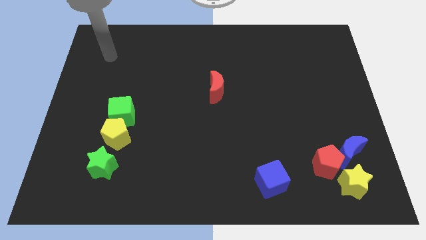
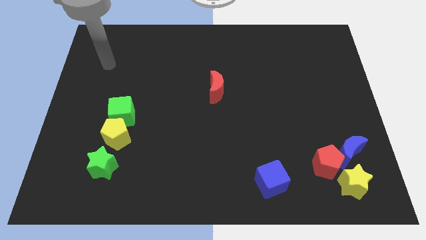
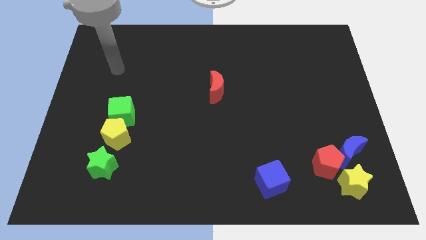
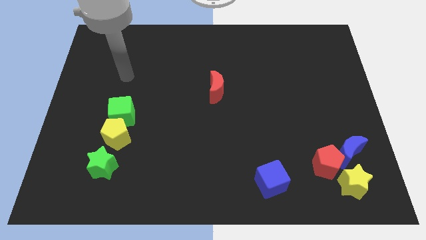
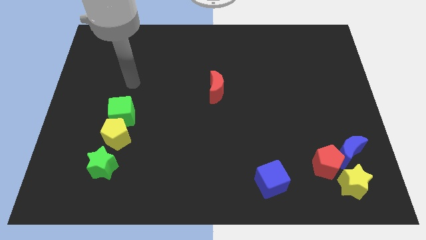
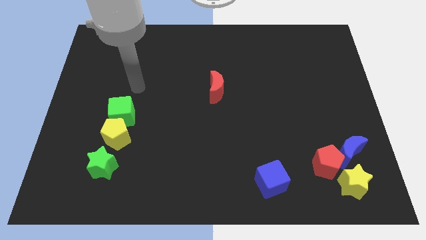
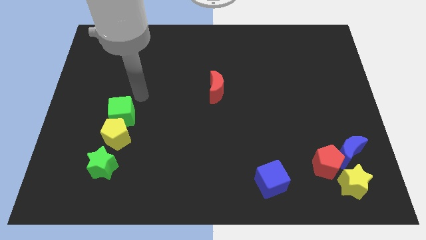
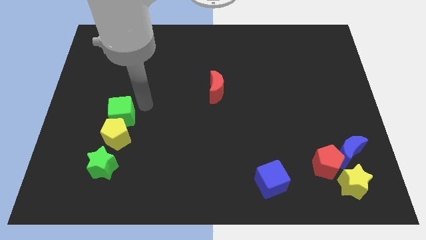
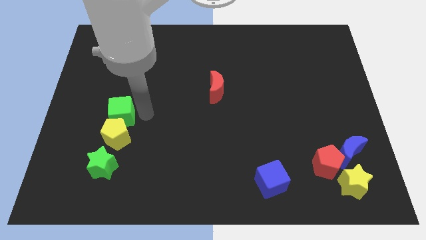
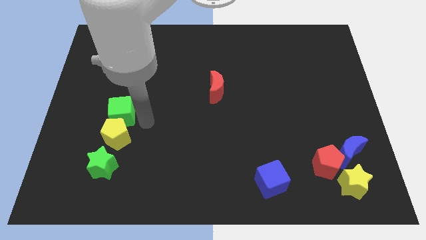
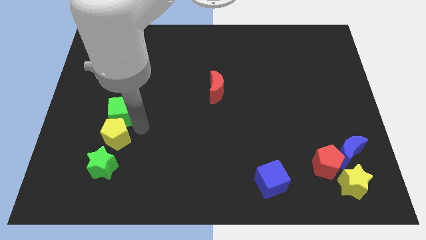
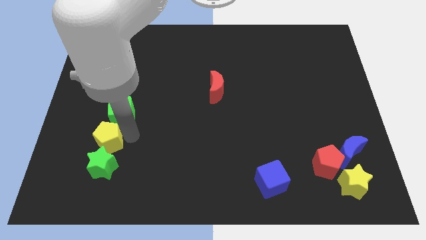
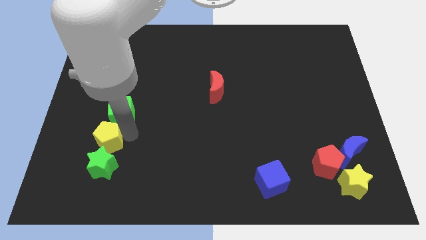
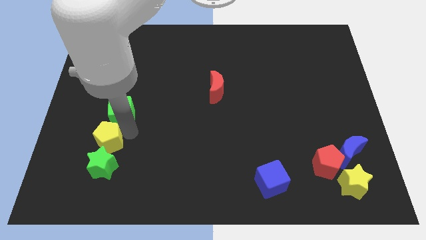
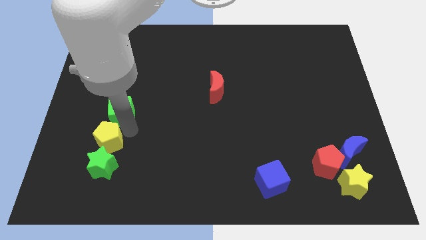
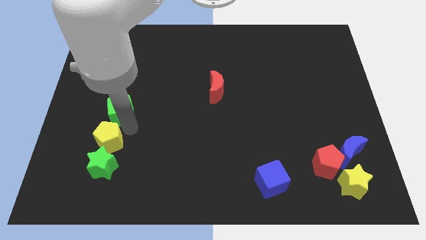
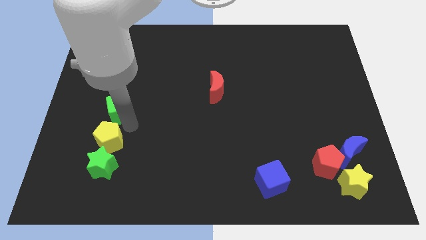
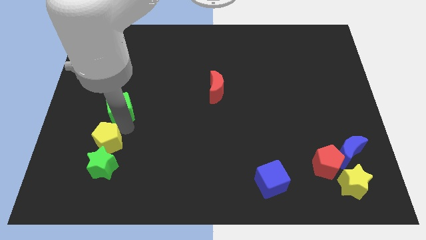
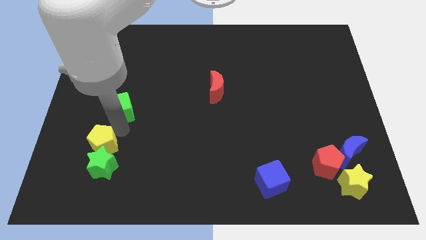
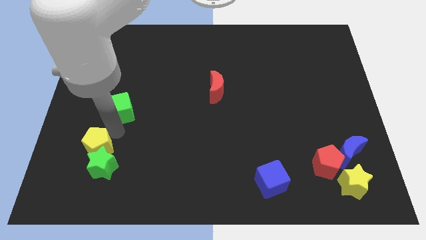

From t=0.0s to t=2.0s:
move the green cube away from the yellow pentagon

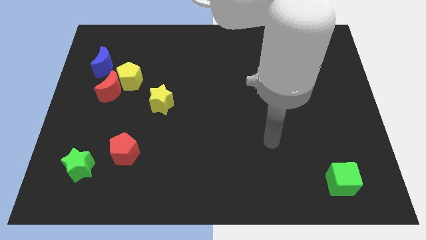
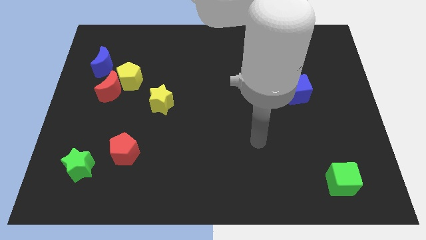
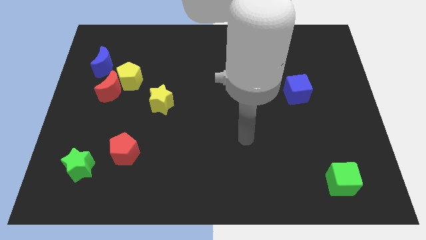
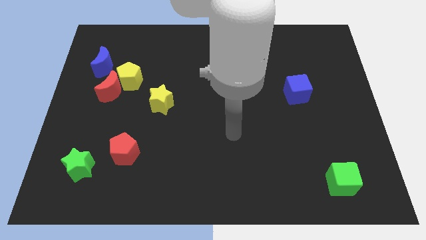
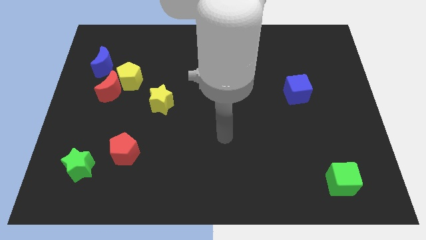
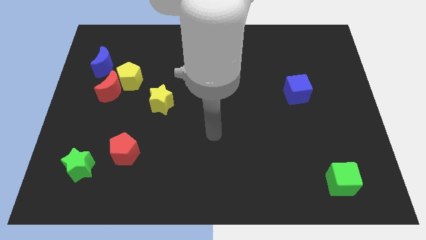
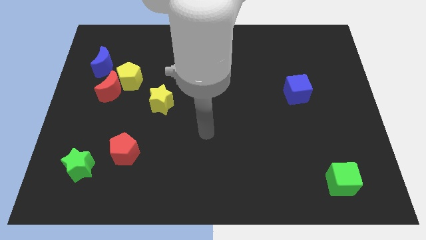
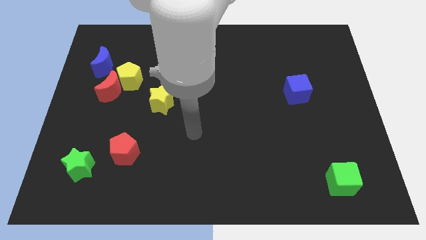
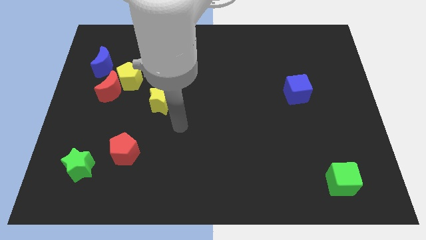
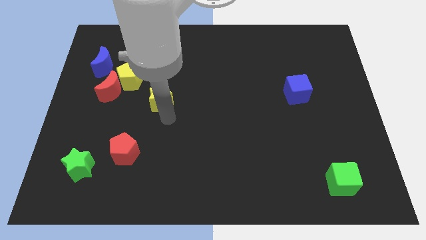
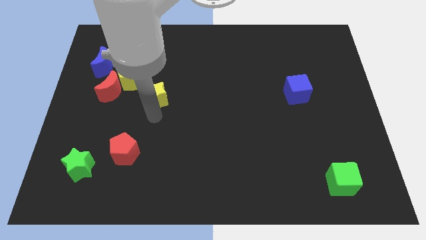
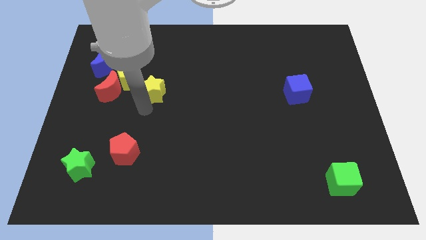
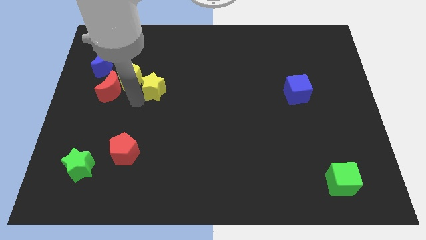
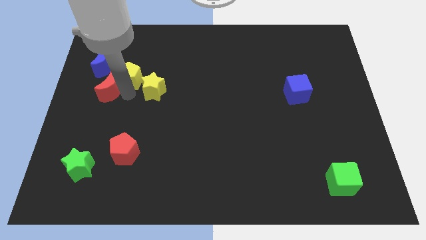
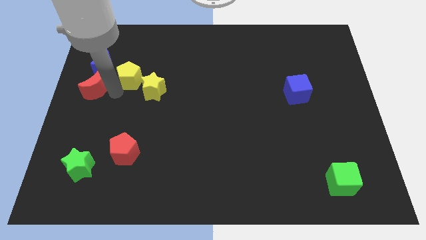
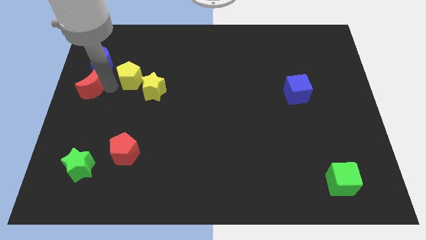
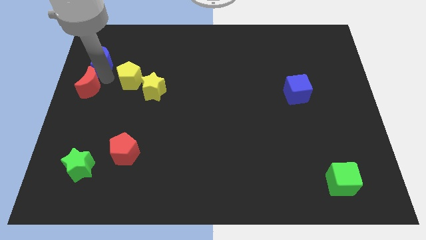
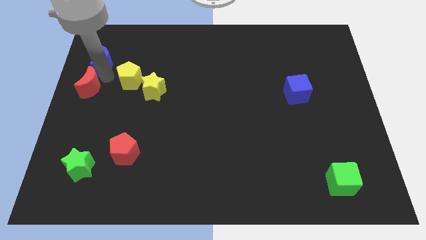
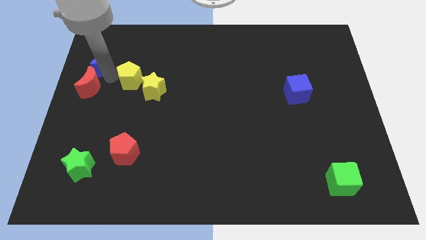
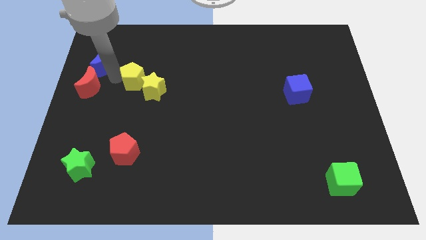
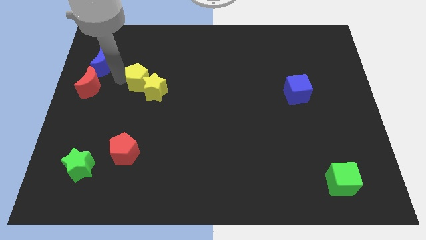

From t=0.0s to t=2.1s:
pull the yellow pentagon apart from the red moon and blue moon

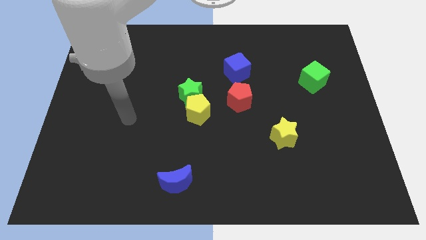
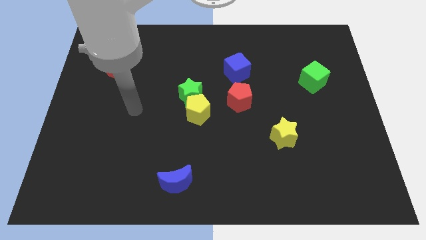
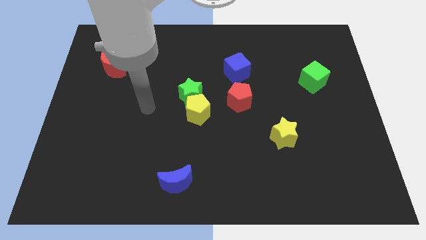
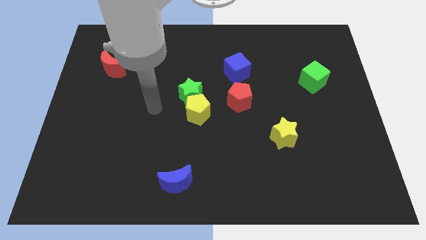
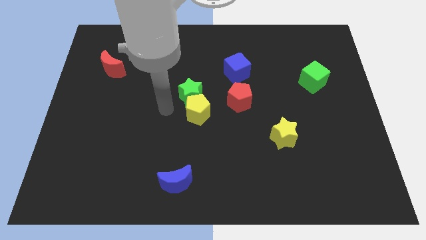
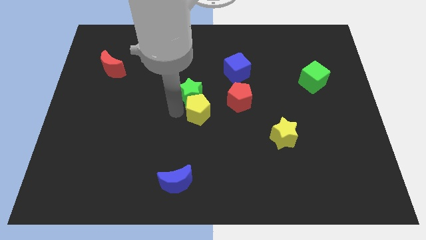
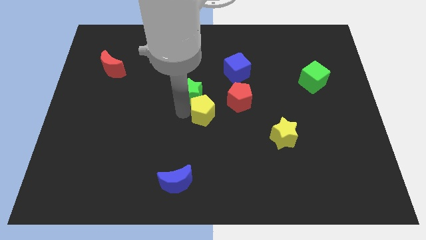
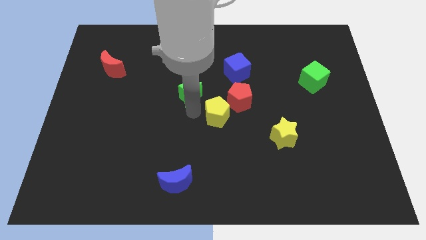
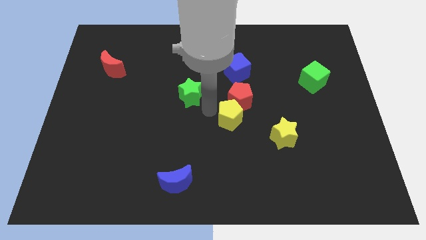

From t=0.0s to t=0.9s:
pull the green star apart from the yellow pentagon

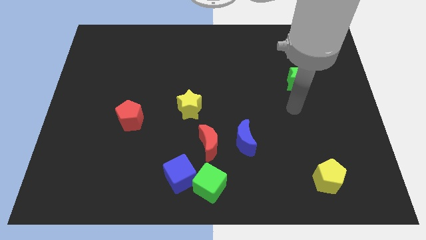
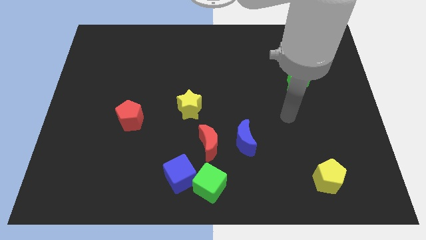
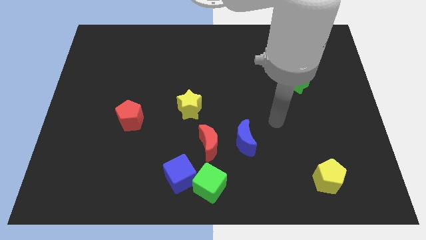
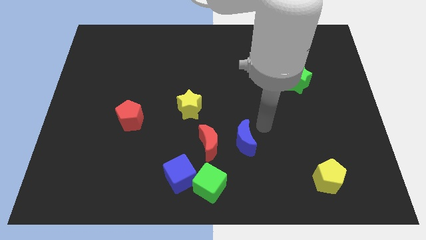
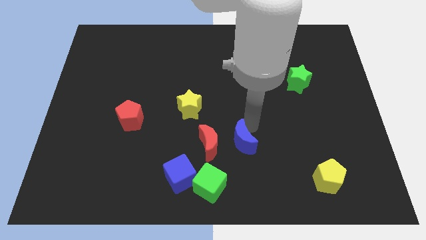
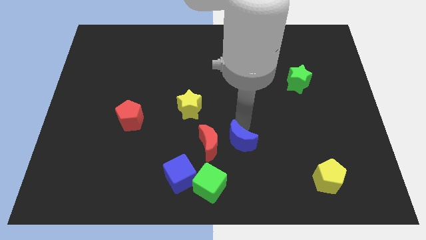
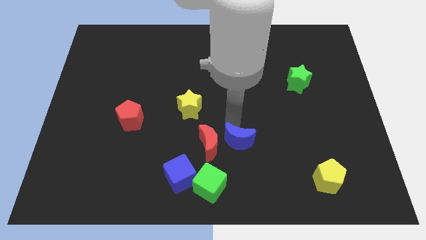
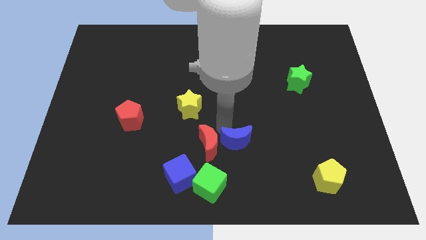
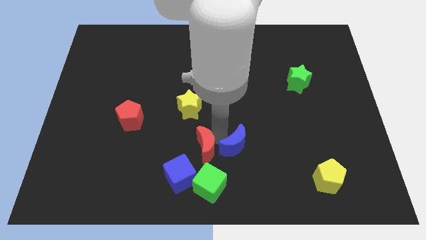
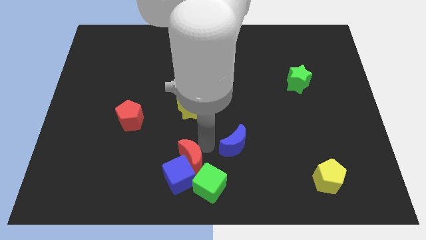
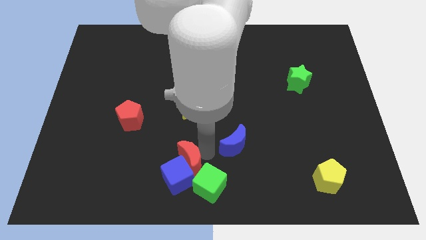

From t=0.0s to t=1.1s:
pull the blue moon apart from the red moon

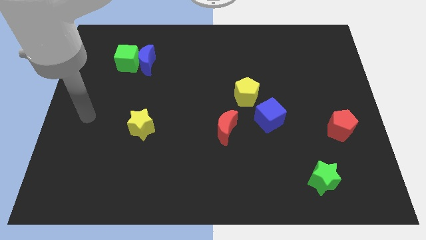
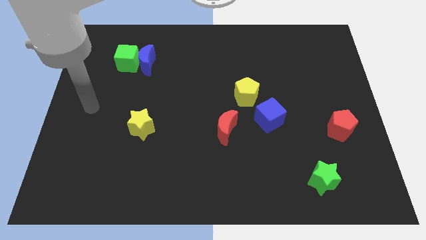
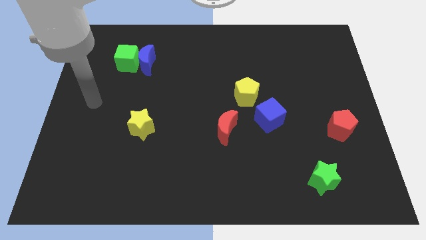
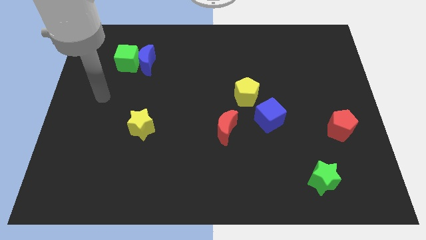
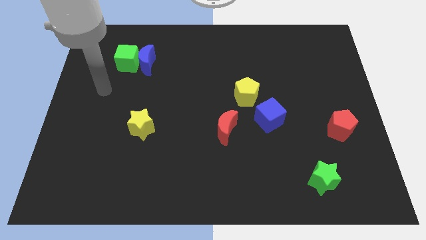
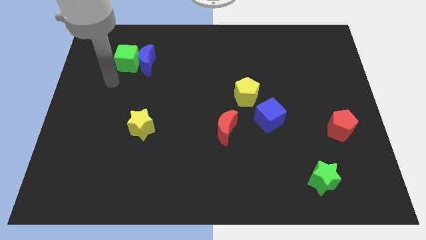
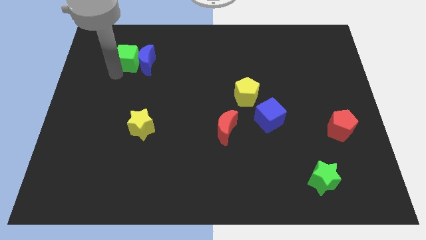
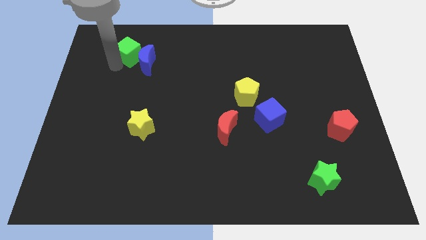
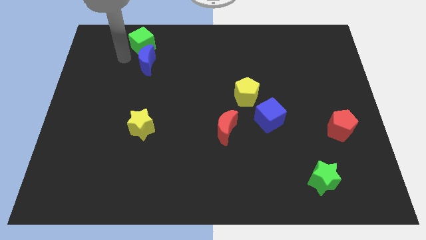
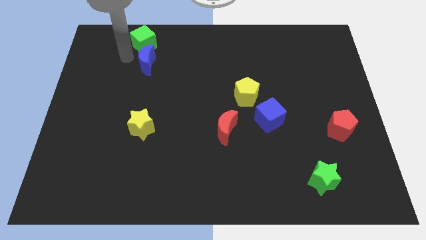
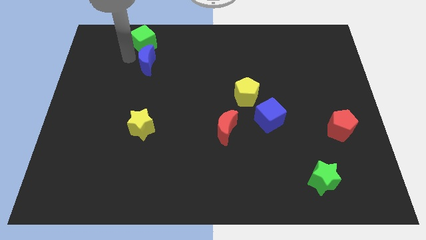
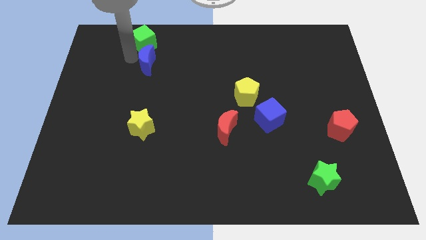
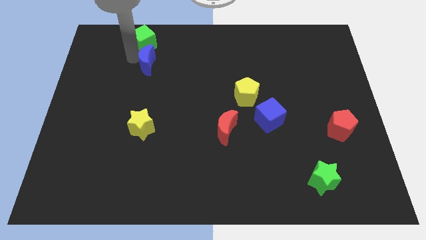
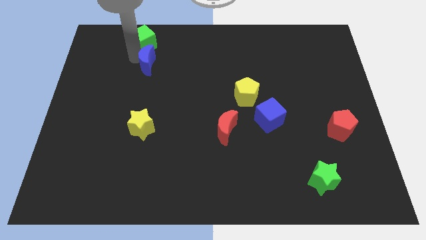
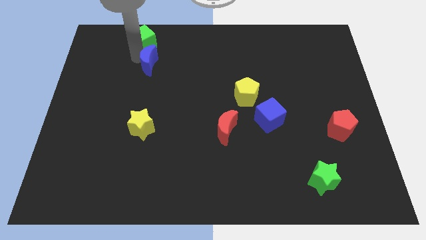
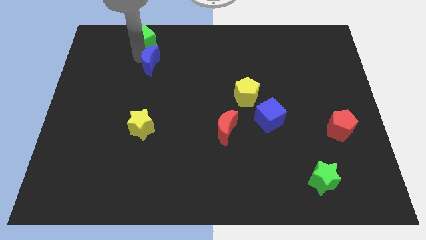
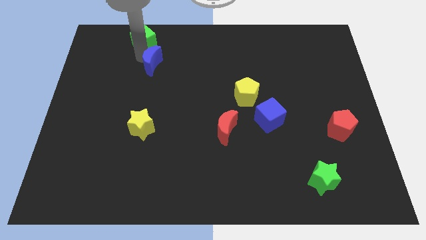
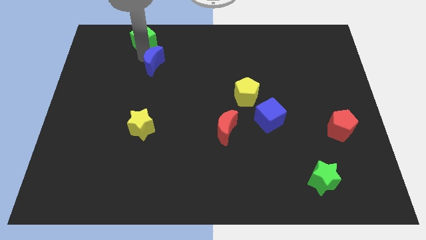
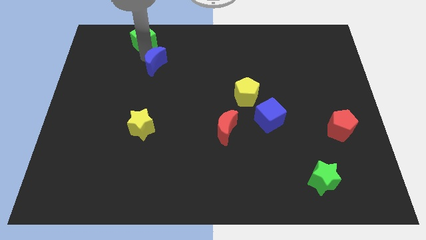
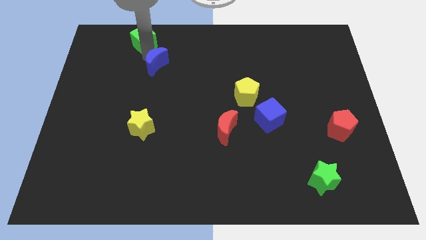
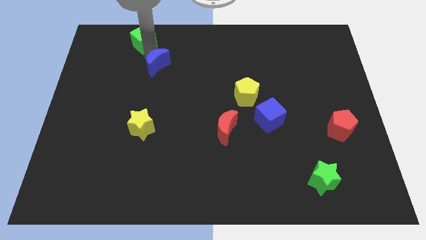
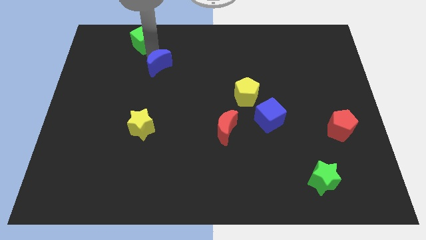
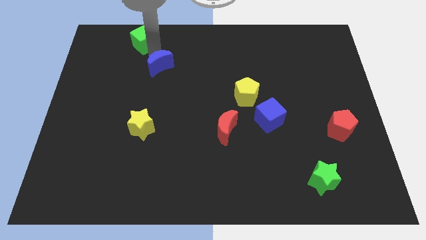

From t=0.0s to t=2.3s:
move the blue moon away from the green cube

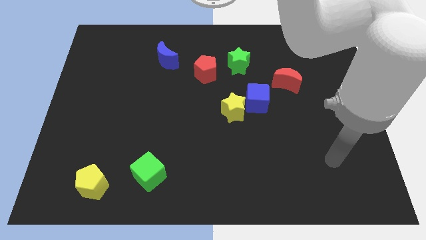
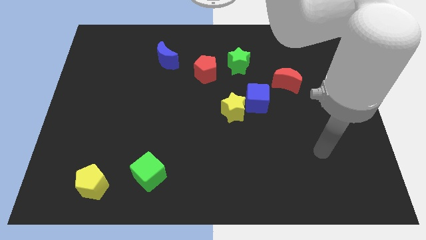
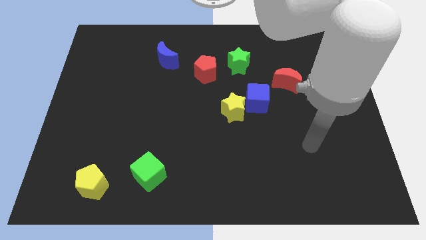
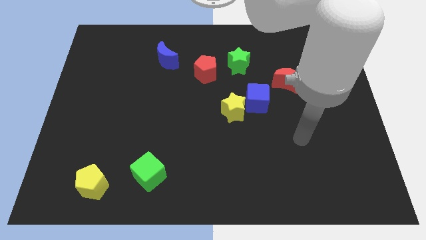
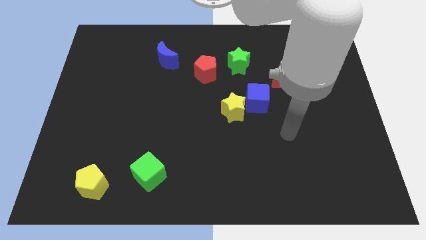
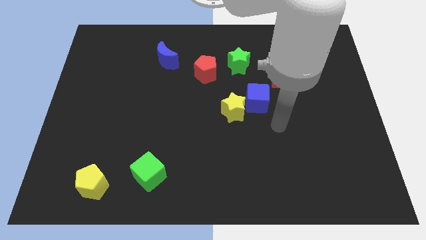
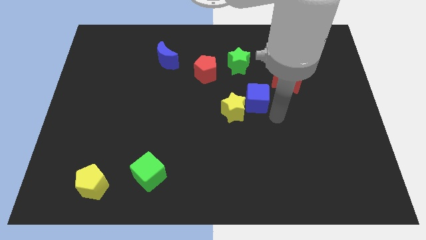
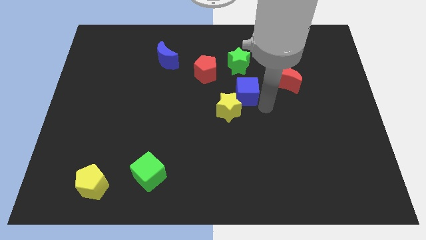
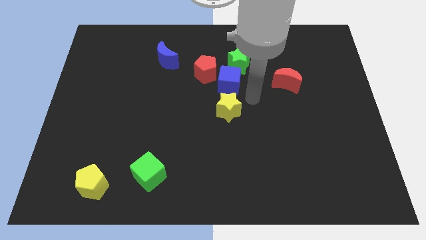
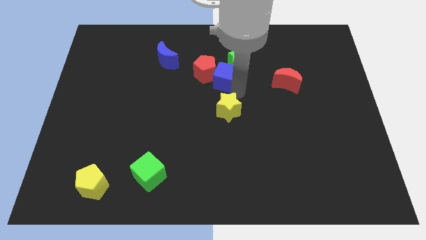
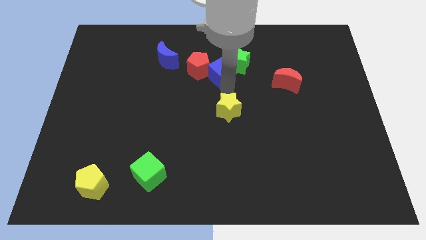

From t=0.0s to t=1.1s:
pull the yellow star apart from the blue cube
